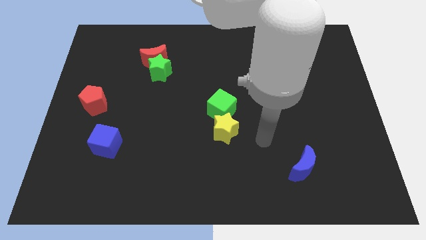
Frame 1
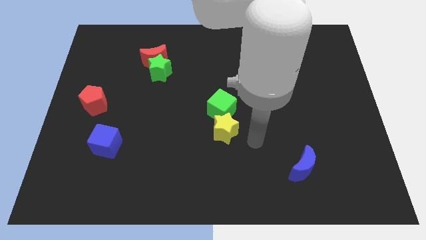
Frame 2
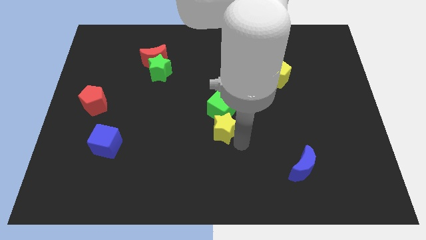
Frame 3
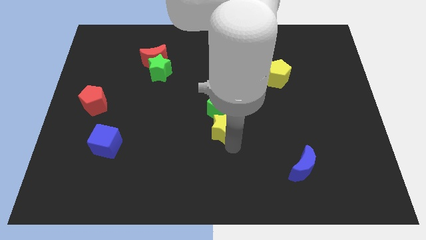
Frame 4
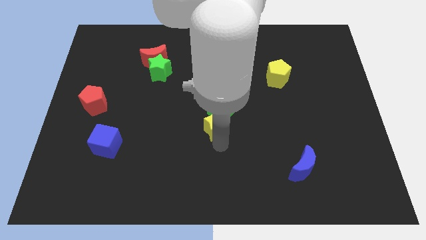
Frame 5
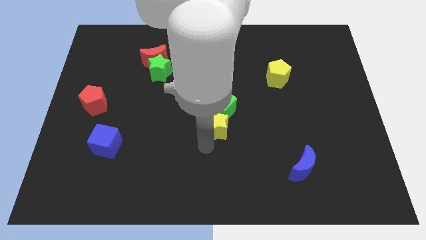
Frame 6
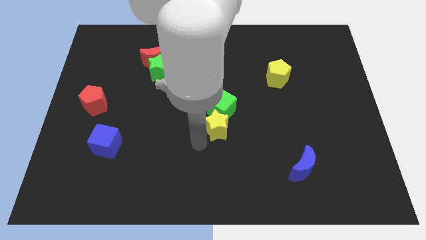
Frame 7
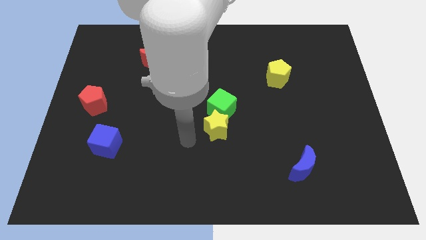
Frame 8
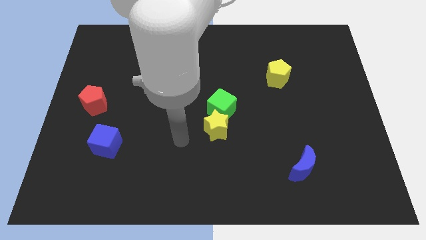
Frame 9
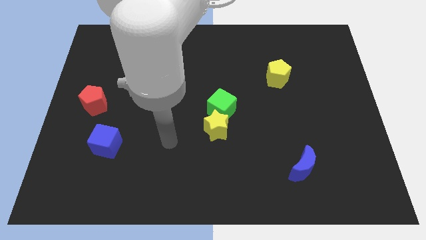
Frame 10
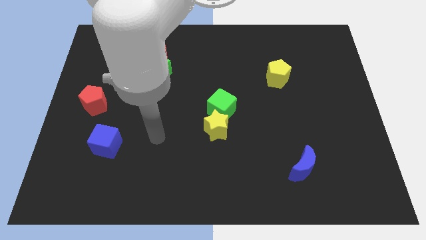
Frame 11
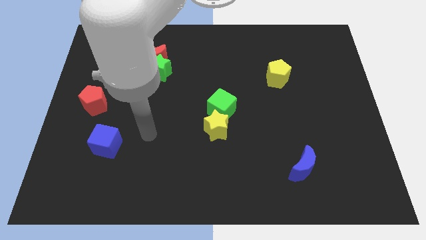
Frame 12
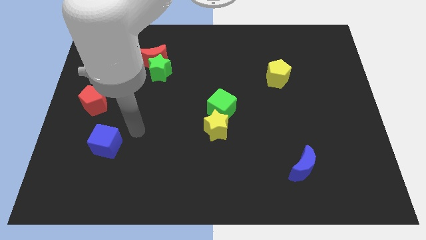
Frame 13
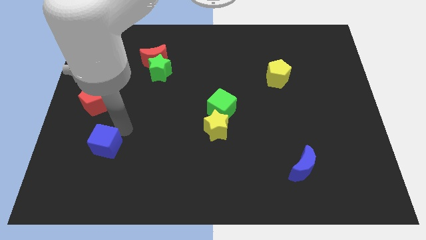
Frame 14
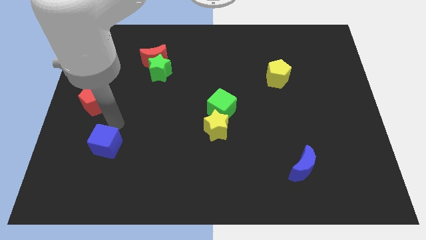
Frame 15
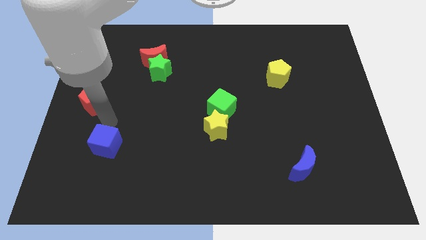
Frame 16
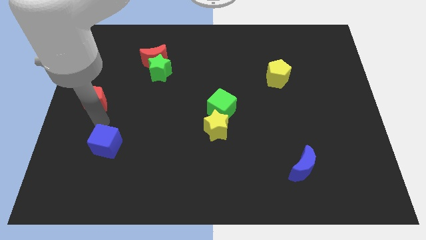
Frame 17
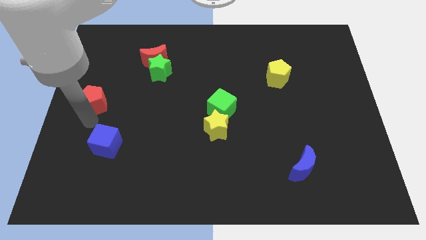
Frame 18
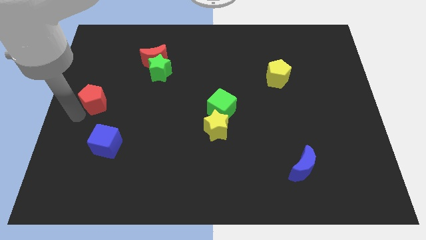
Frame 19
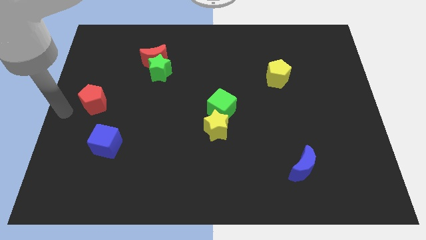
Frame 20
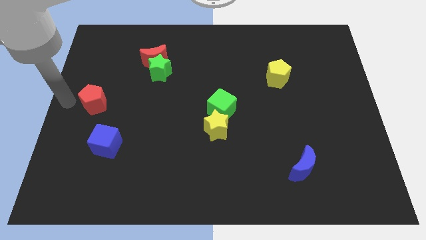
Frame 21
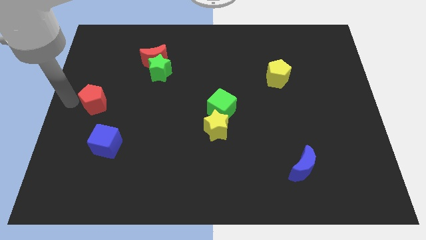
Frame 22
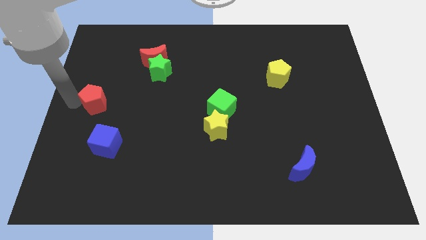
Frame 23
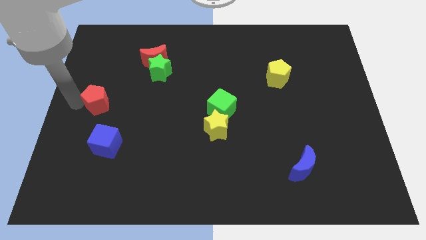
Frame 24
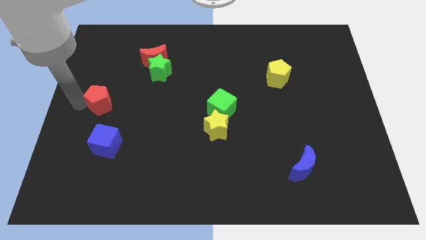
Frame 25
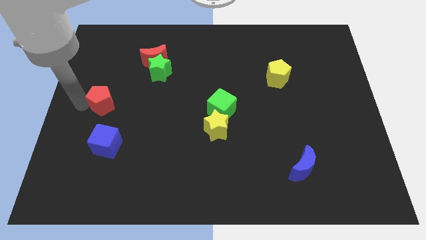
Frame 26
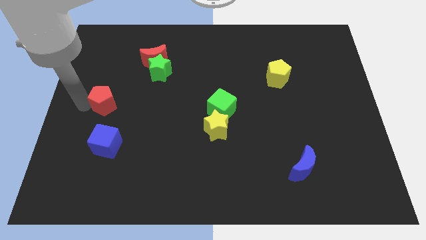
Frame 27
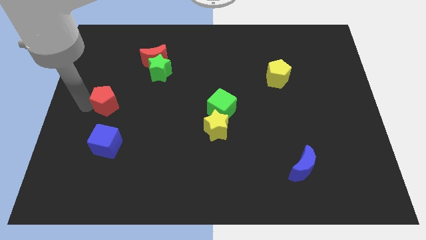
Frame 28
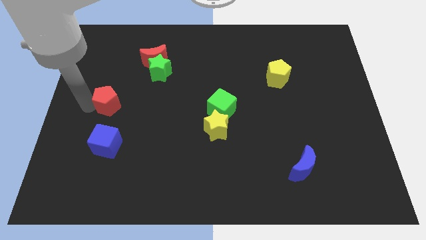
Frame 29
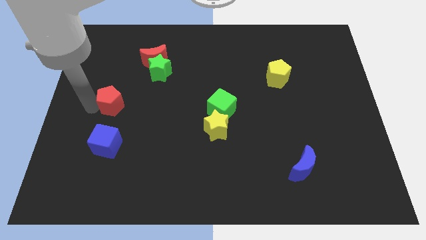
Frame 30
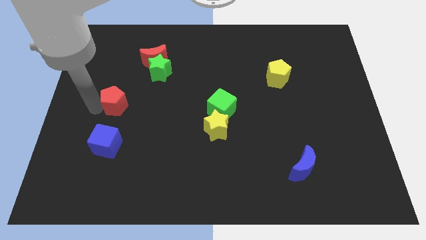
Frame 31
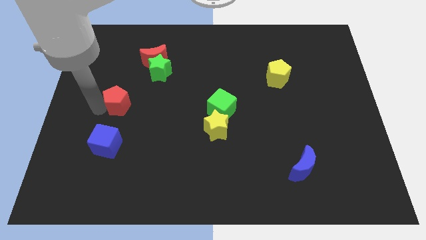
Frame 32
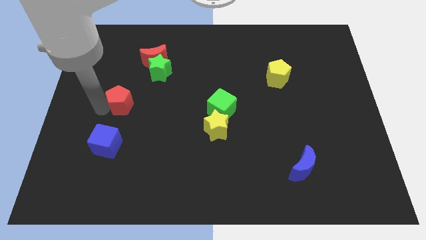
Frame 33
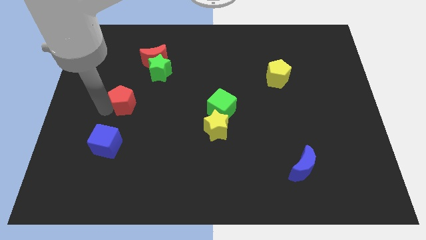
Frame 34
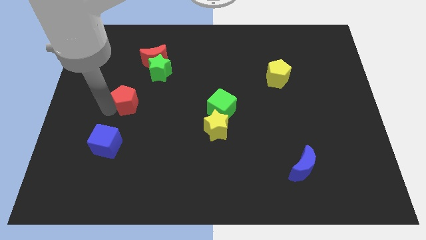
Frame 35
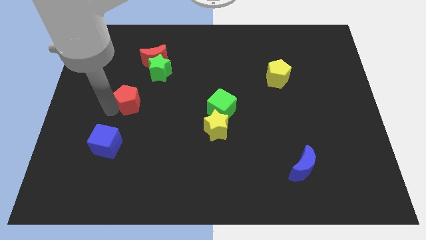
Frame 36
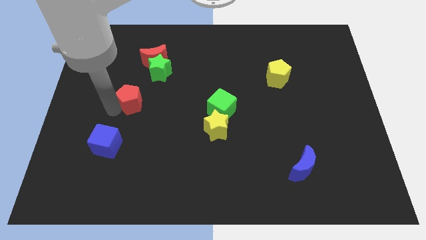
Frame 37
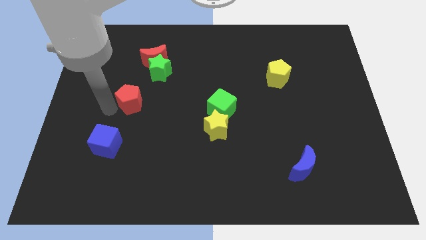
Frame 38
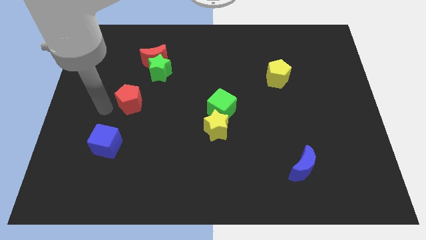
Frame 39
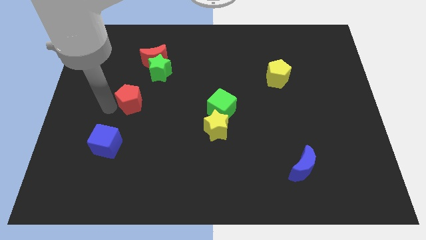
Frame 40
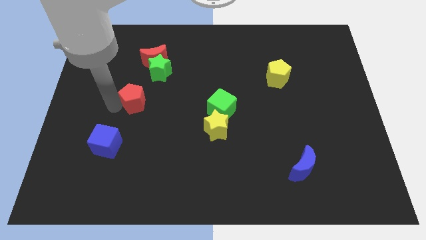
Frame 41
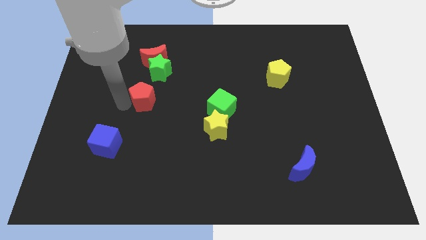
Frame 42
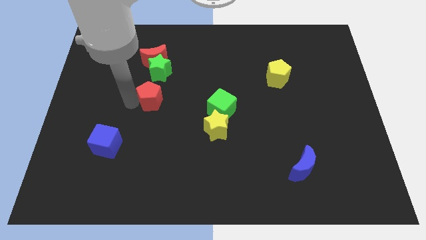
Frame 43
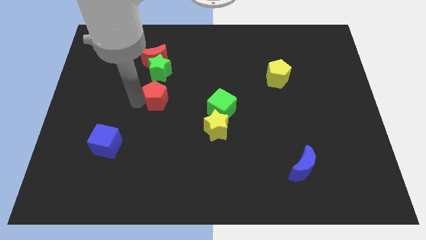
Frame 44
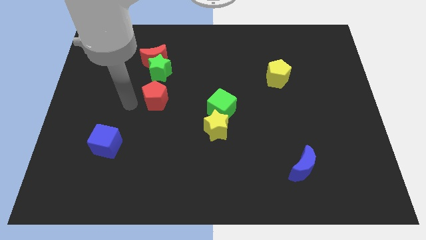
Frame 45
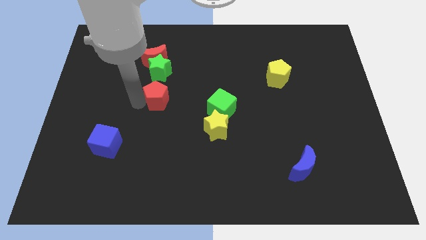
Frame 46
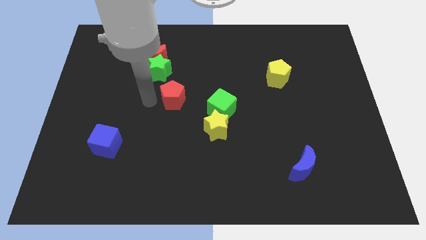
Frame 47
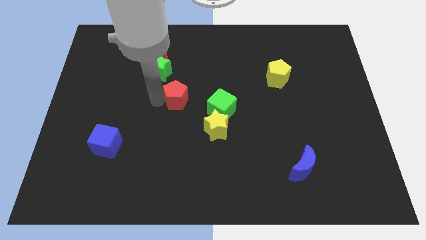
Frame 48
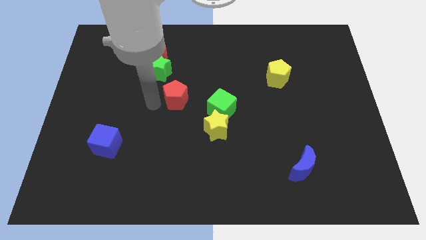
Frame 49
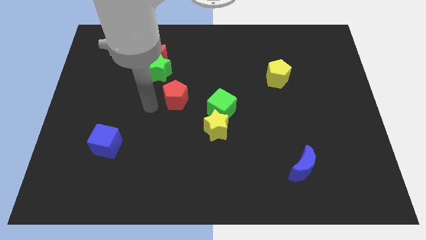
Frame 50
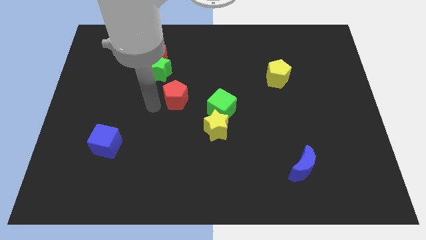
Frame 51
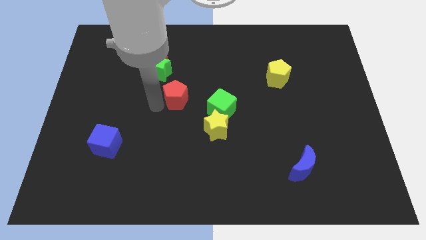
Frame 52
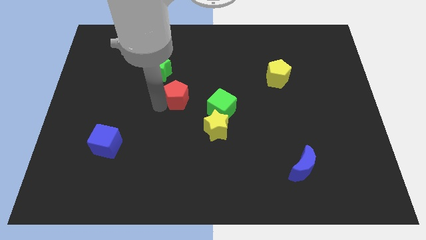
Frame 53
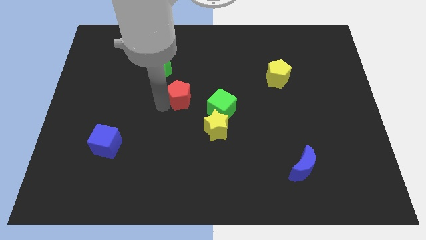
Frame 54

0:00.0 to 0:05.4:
move the red pentagon to the top left of the green cube

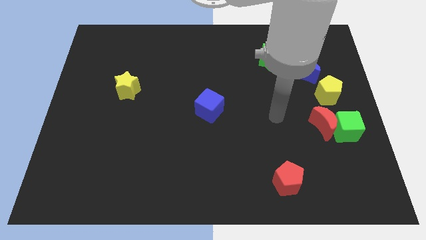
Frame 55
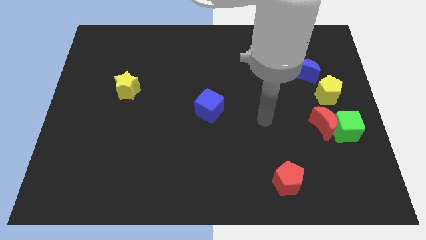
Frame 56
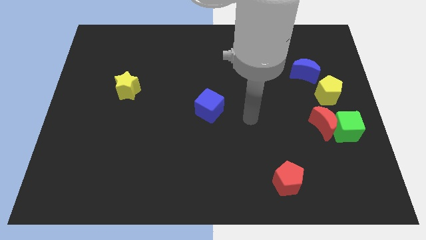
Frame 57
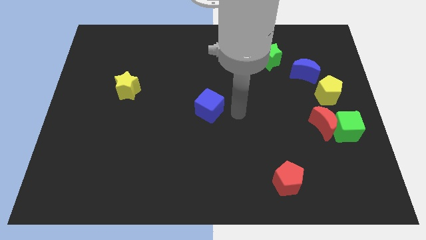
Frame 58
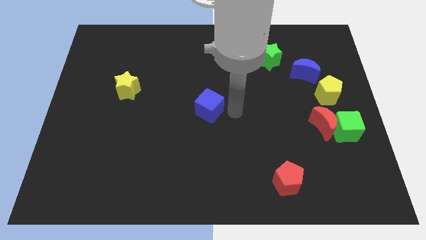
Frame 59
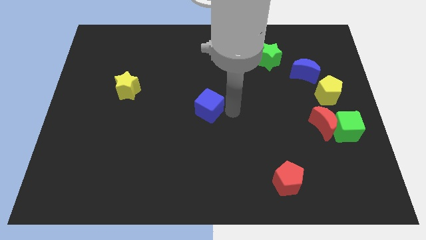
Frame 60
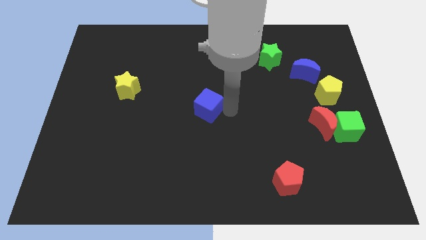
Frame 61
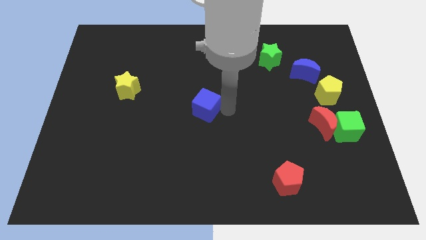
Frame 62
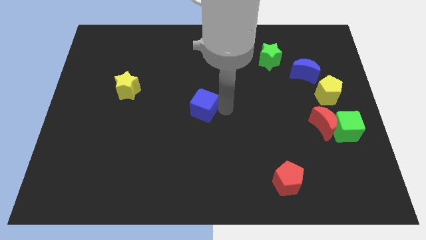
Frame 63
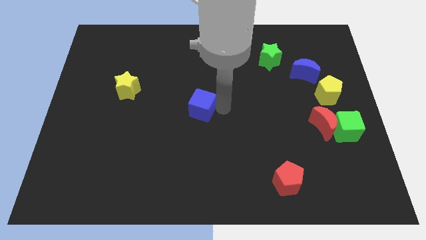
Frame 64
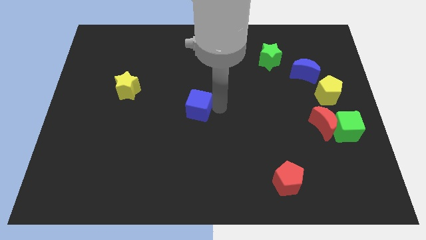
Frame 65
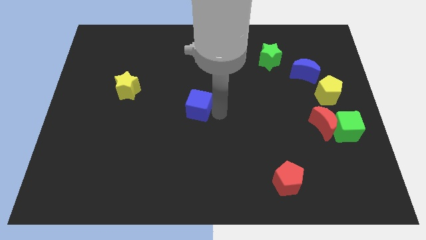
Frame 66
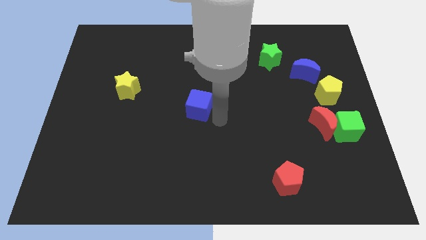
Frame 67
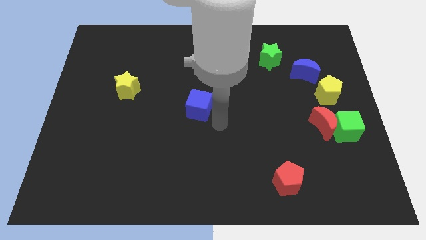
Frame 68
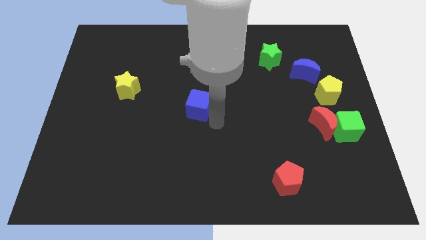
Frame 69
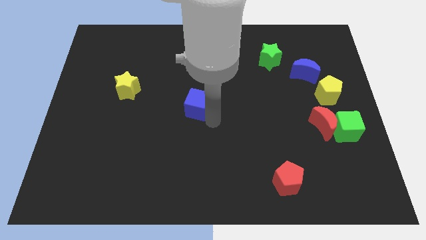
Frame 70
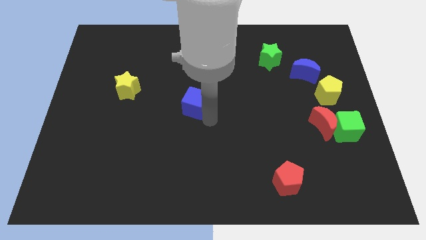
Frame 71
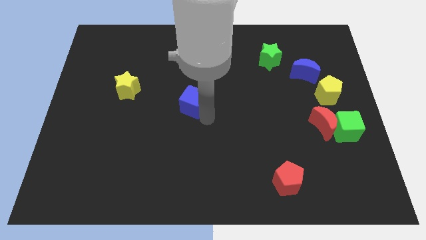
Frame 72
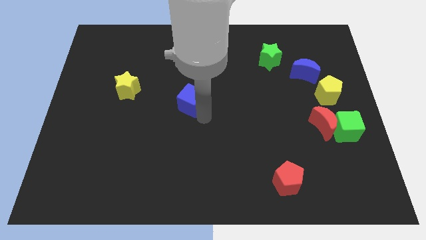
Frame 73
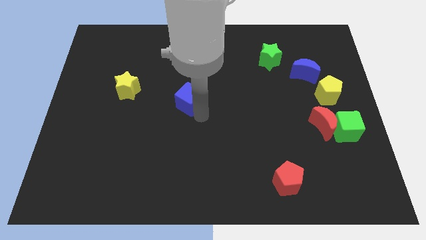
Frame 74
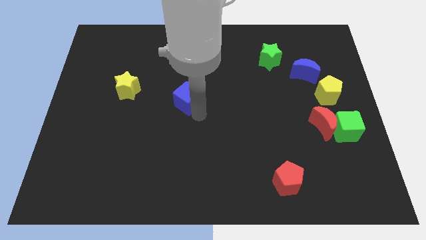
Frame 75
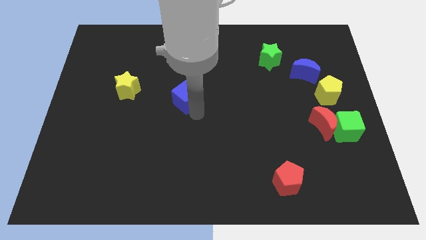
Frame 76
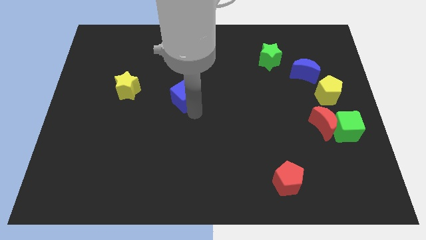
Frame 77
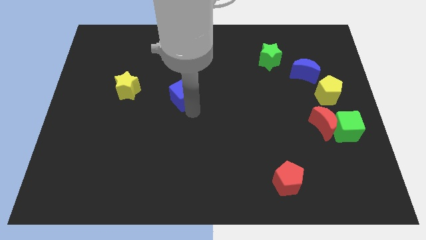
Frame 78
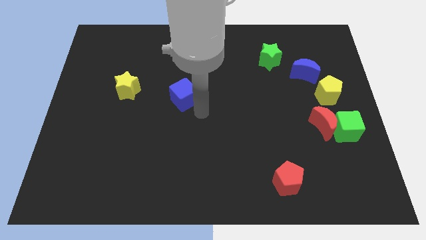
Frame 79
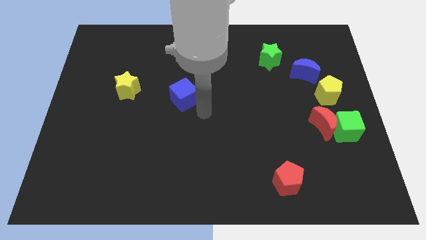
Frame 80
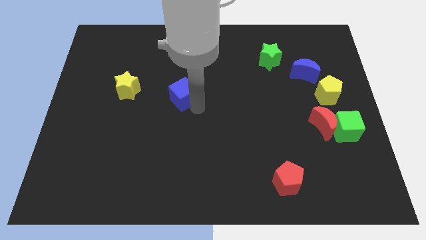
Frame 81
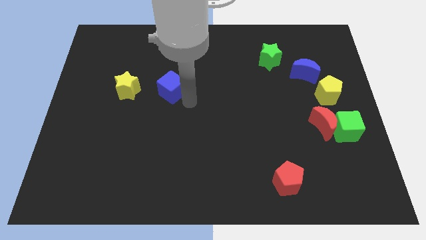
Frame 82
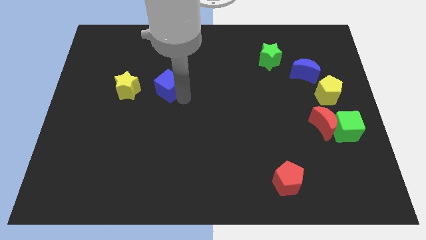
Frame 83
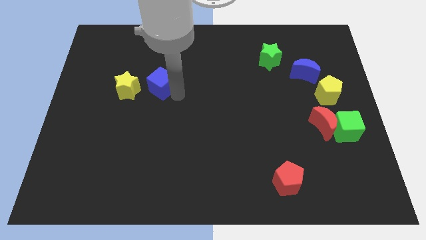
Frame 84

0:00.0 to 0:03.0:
slide the blue cube diagonally up and to the right of the yellow star
